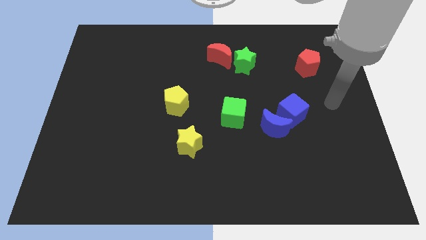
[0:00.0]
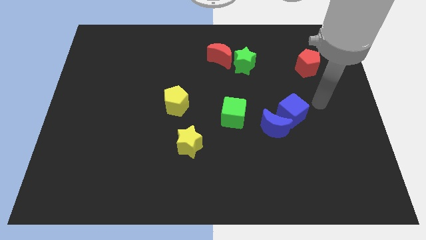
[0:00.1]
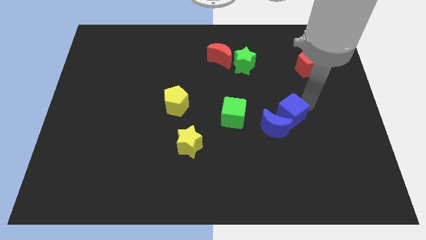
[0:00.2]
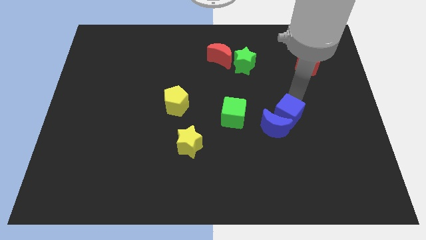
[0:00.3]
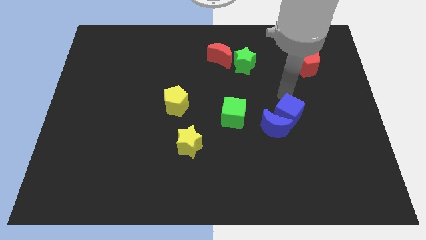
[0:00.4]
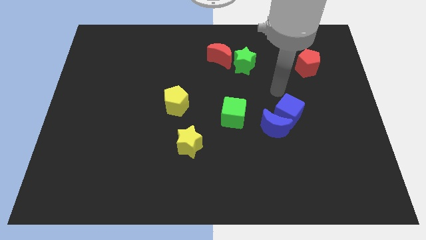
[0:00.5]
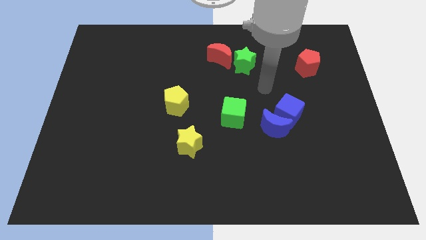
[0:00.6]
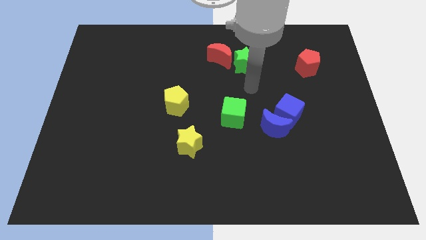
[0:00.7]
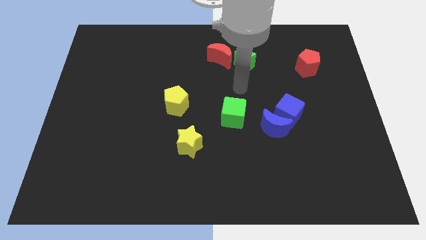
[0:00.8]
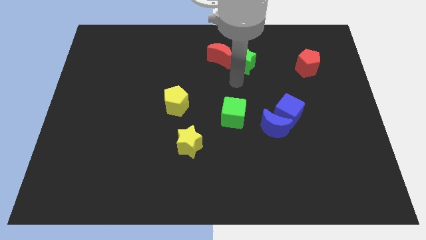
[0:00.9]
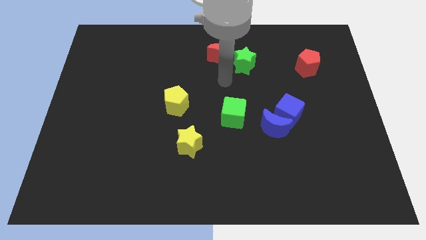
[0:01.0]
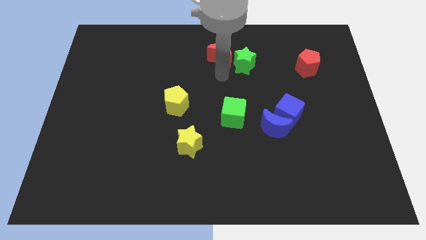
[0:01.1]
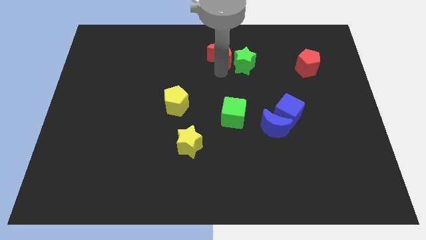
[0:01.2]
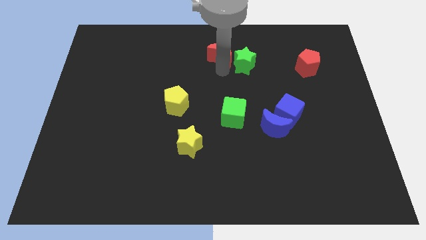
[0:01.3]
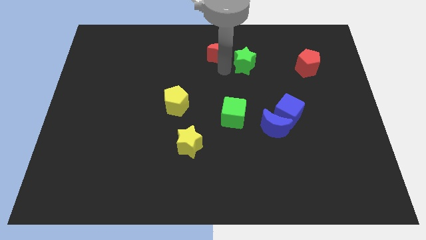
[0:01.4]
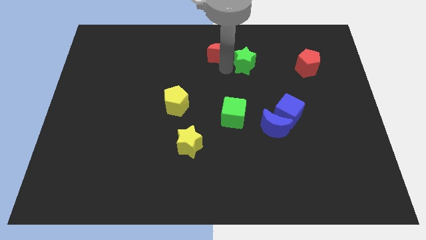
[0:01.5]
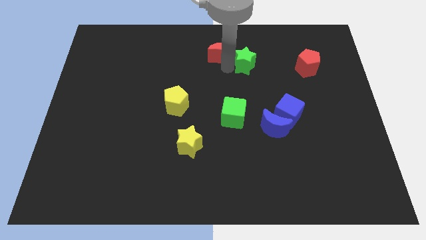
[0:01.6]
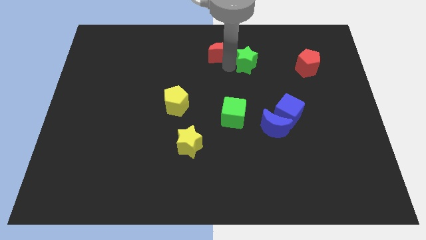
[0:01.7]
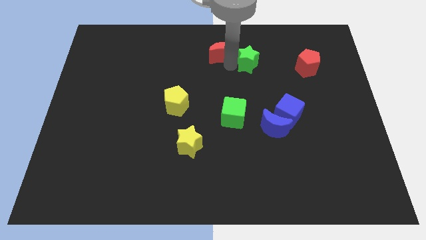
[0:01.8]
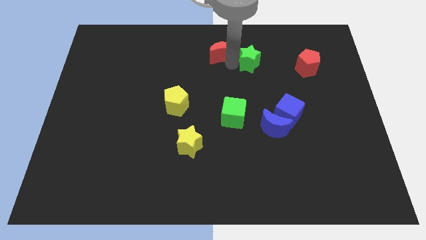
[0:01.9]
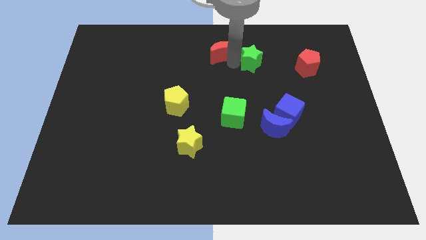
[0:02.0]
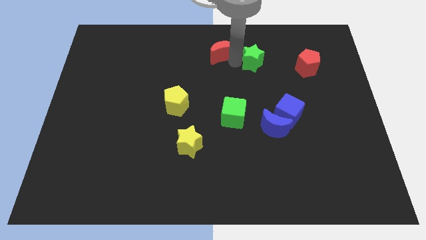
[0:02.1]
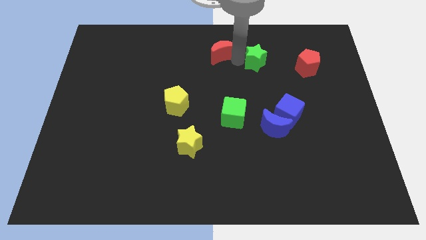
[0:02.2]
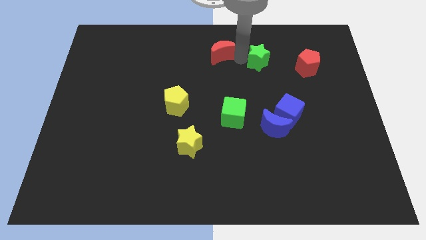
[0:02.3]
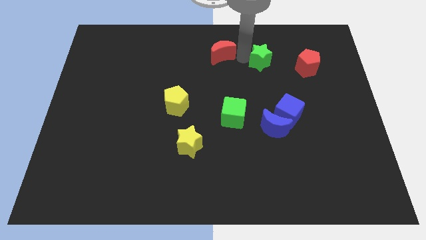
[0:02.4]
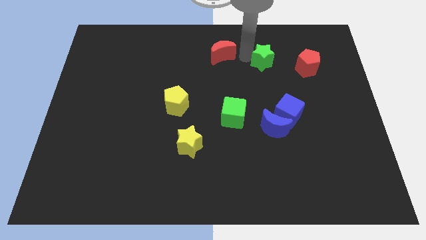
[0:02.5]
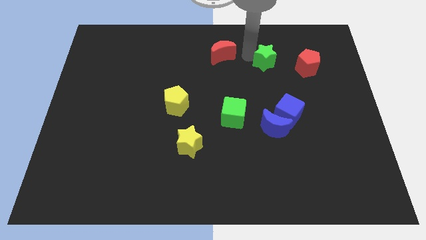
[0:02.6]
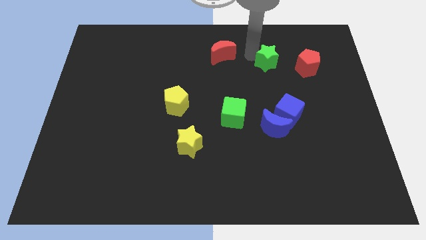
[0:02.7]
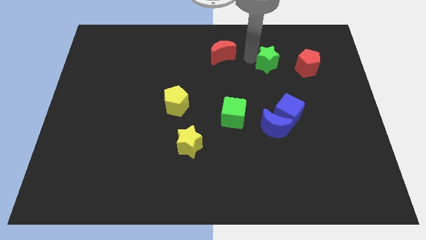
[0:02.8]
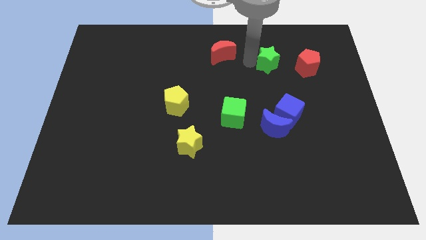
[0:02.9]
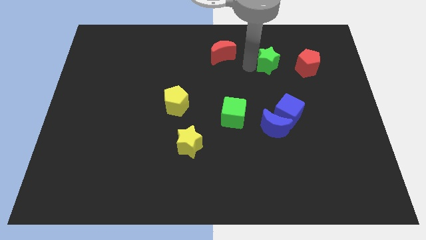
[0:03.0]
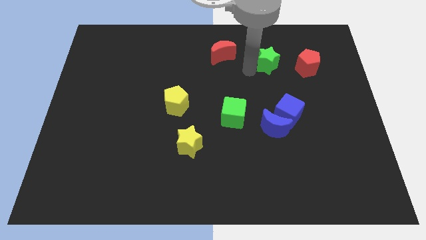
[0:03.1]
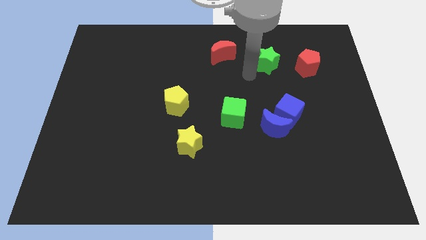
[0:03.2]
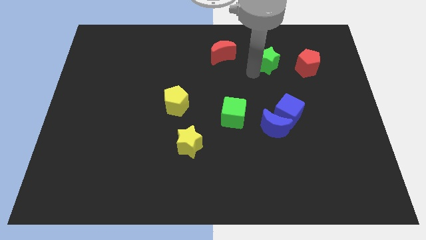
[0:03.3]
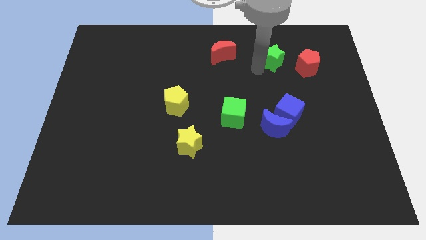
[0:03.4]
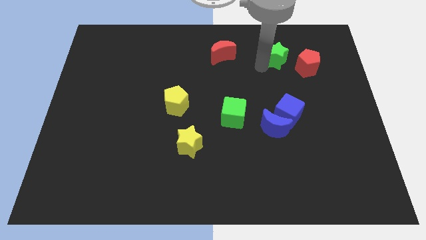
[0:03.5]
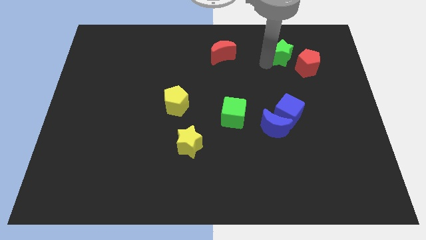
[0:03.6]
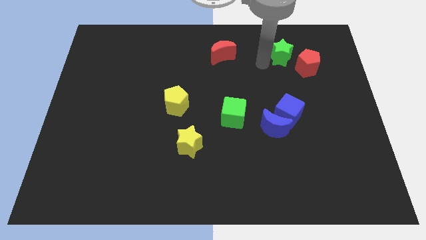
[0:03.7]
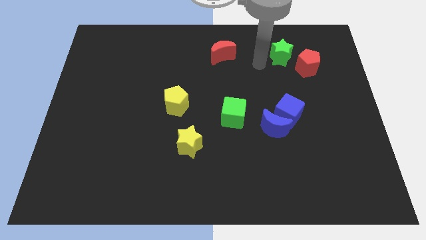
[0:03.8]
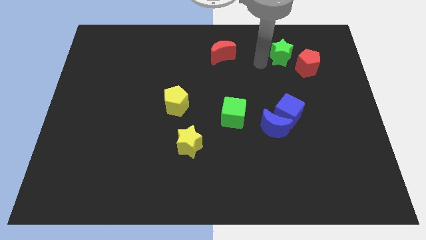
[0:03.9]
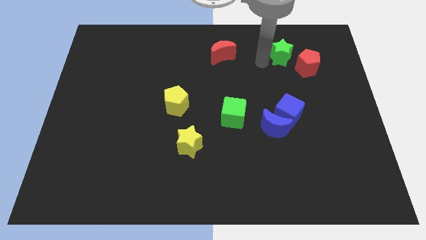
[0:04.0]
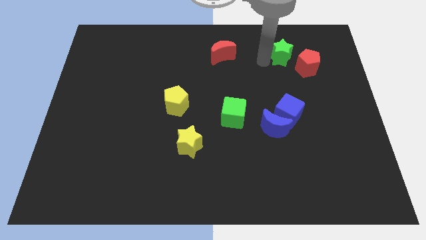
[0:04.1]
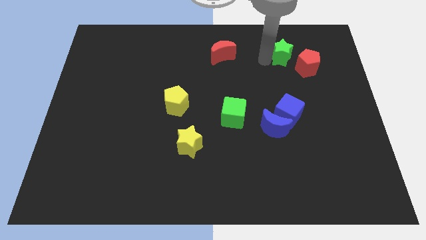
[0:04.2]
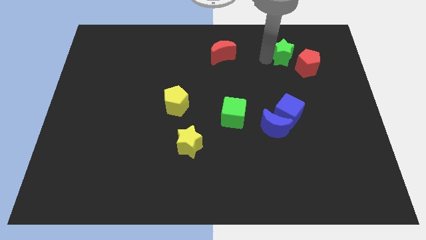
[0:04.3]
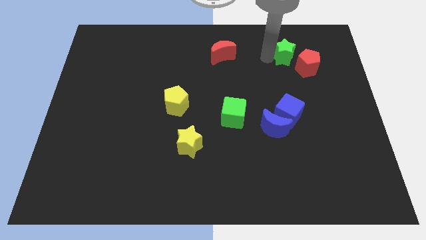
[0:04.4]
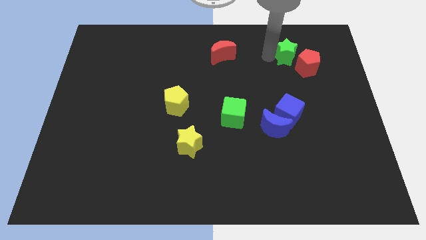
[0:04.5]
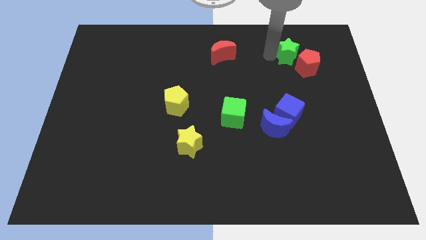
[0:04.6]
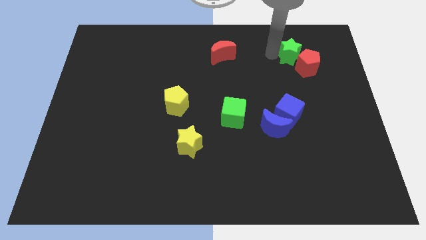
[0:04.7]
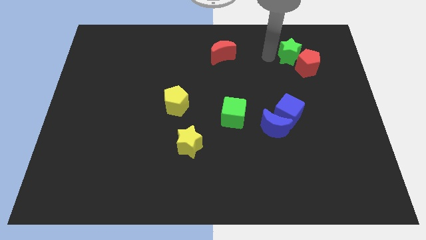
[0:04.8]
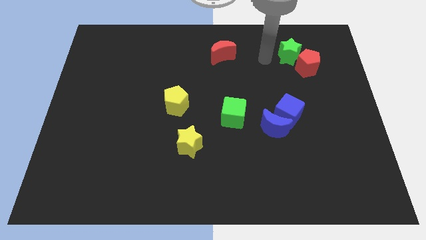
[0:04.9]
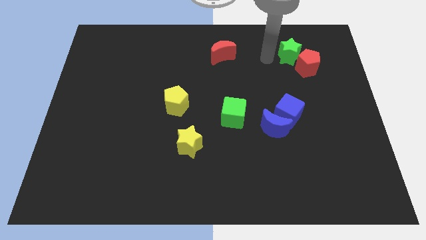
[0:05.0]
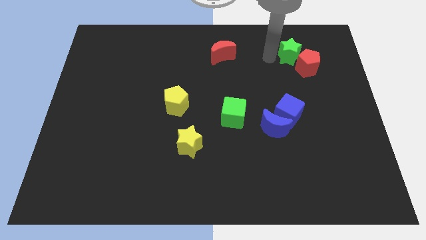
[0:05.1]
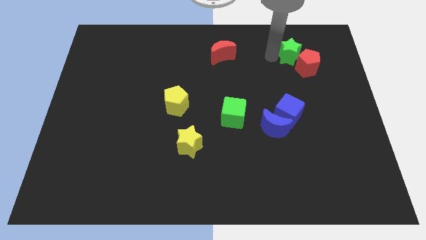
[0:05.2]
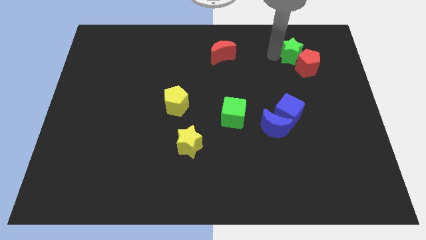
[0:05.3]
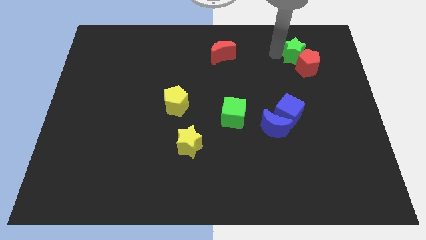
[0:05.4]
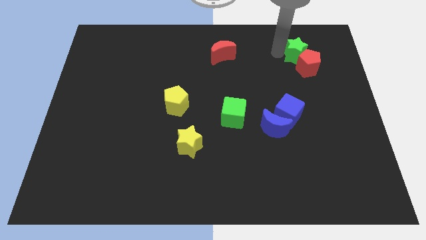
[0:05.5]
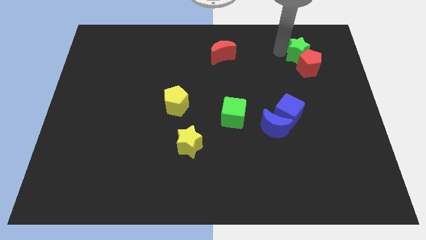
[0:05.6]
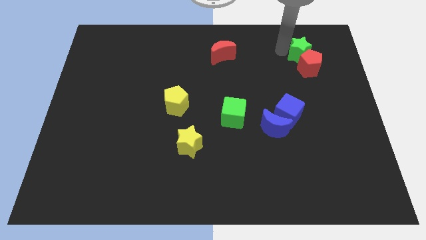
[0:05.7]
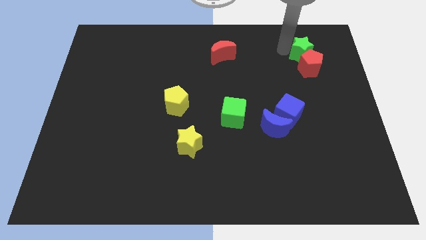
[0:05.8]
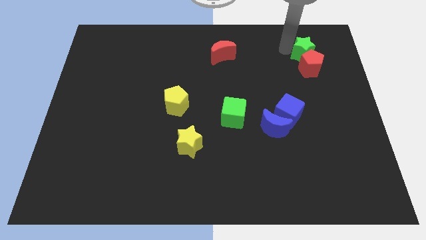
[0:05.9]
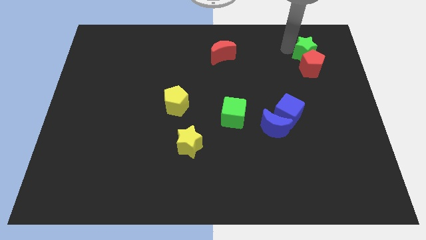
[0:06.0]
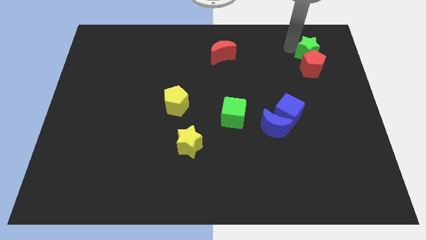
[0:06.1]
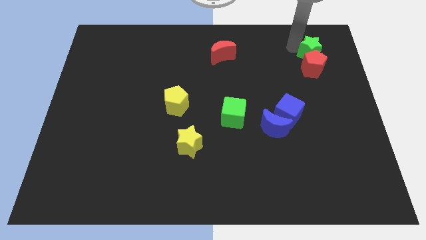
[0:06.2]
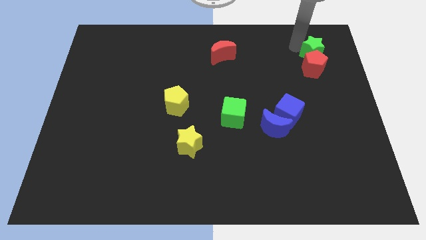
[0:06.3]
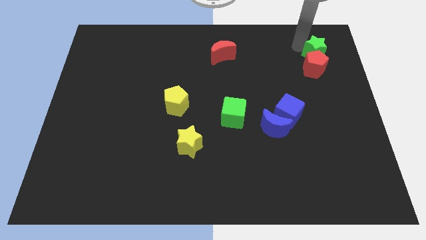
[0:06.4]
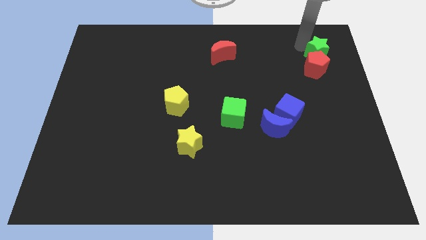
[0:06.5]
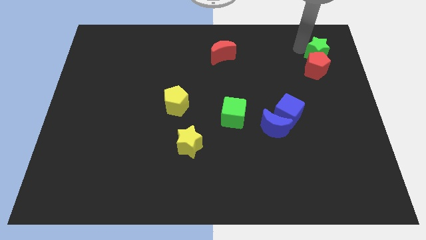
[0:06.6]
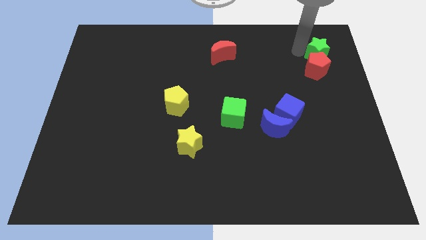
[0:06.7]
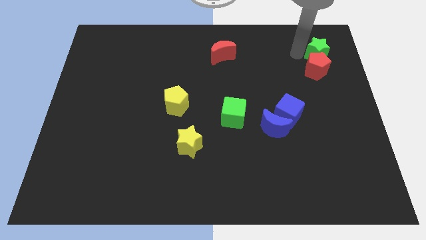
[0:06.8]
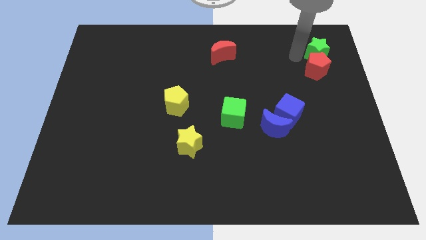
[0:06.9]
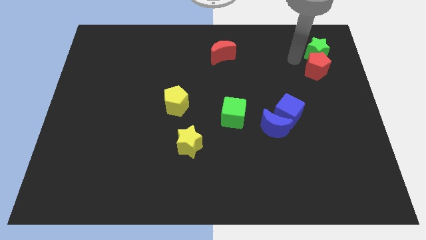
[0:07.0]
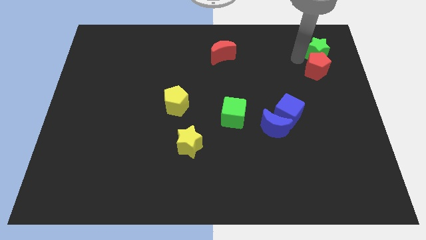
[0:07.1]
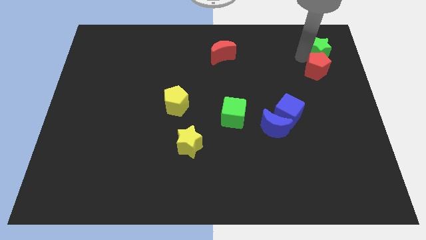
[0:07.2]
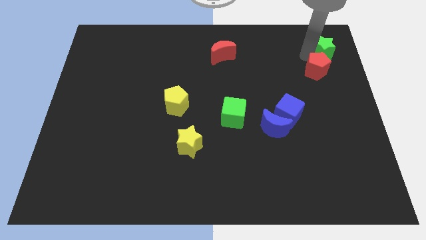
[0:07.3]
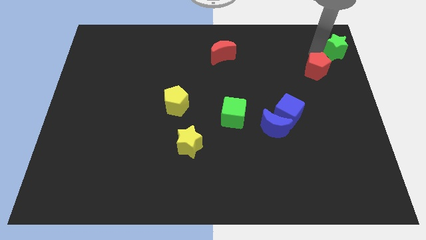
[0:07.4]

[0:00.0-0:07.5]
move the green star to the upper right corner
